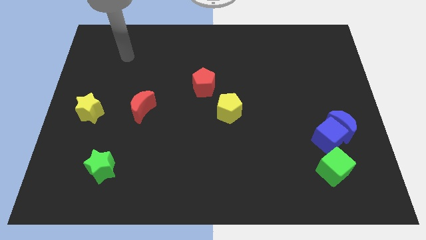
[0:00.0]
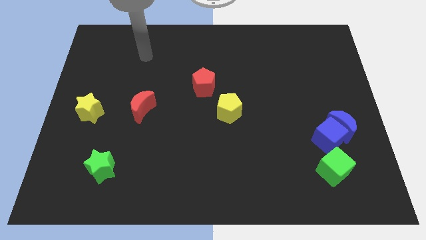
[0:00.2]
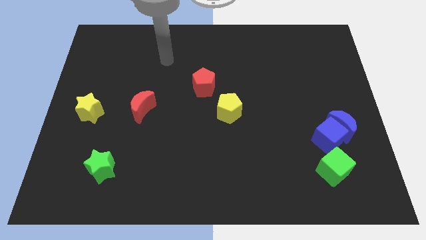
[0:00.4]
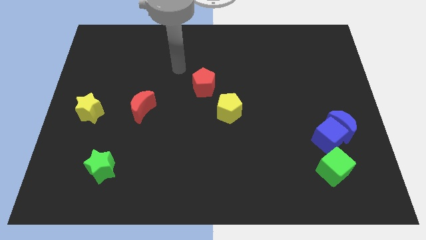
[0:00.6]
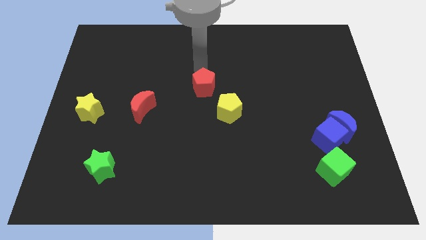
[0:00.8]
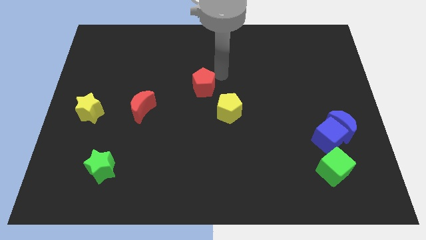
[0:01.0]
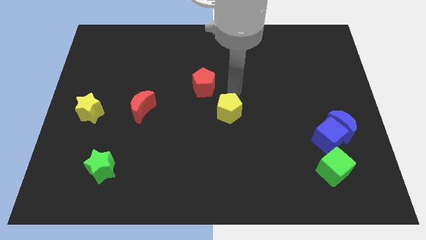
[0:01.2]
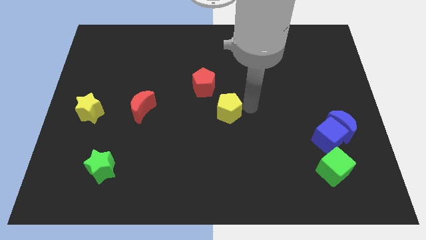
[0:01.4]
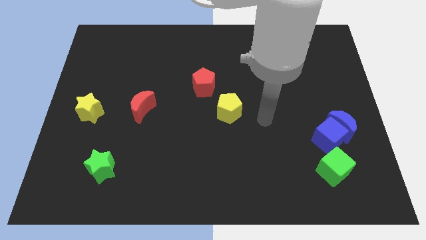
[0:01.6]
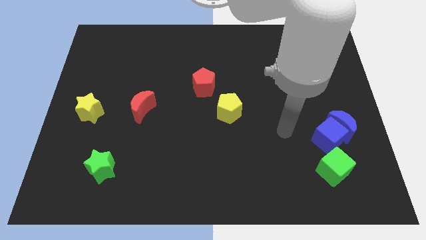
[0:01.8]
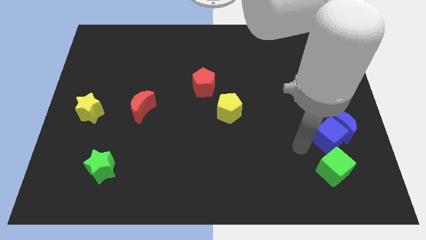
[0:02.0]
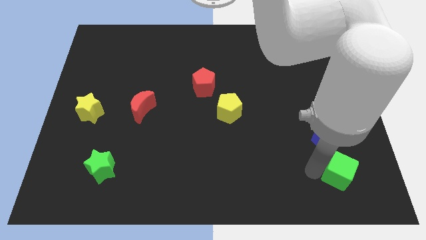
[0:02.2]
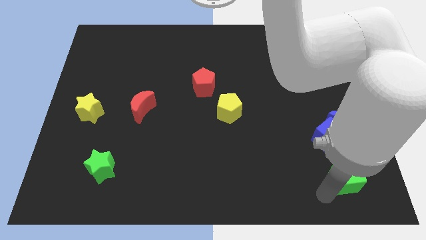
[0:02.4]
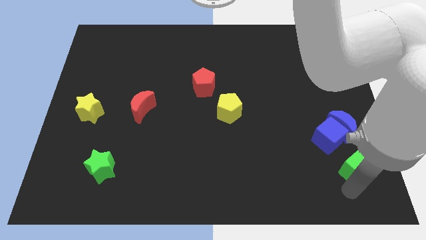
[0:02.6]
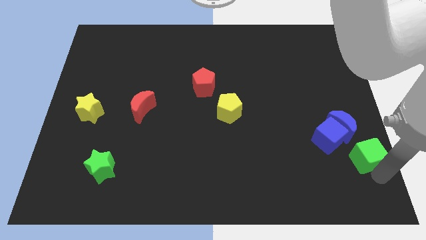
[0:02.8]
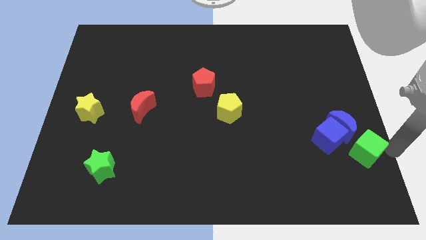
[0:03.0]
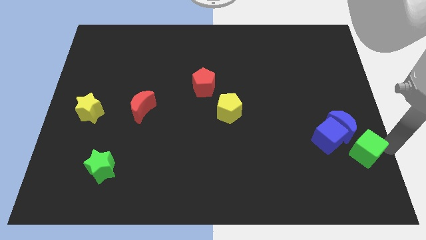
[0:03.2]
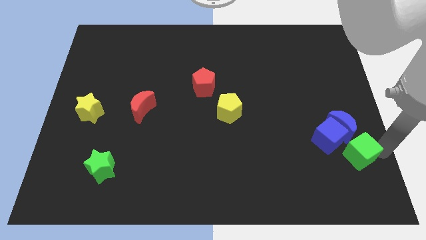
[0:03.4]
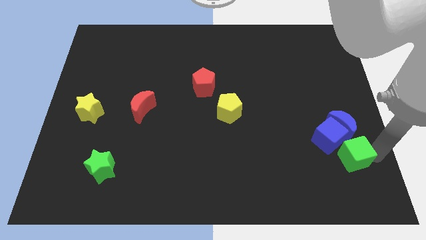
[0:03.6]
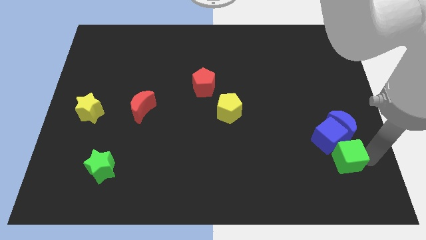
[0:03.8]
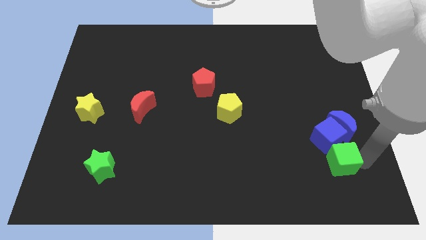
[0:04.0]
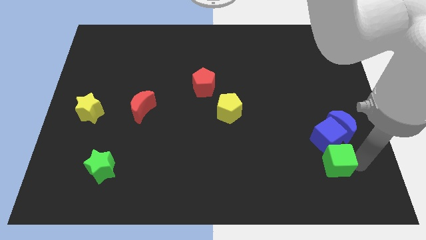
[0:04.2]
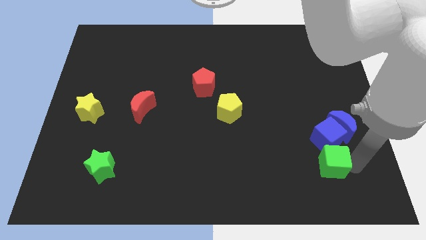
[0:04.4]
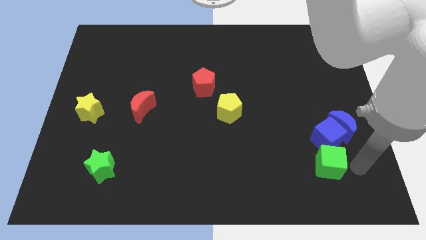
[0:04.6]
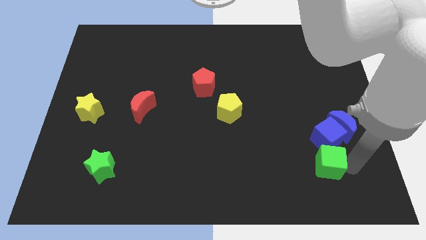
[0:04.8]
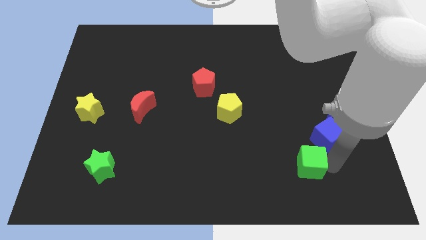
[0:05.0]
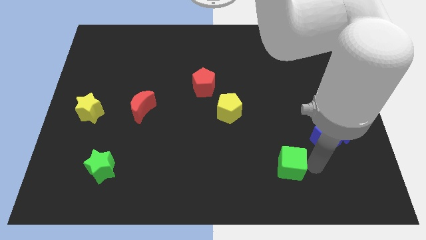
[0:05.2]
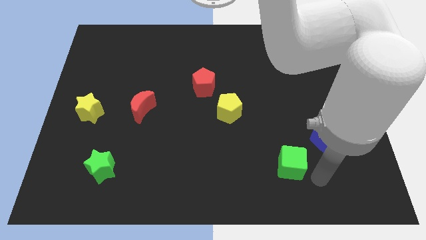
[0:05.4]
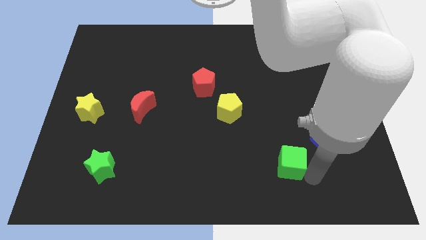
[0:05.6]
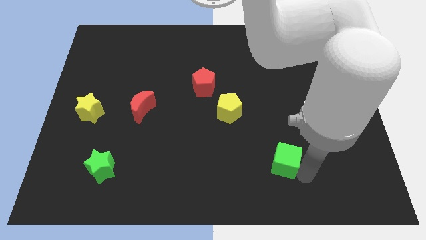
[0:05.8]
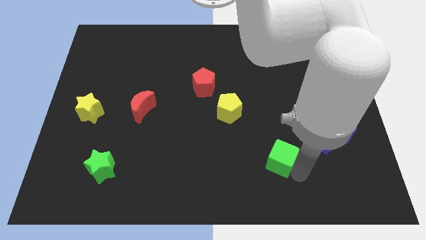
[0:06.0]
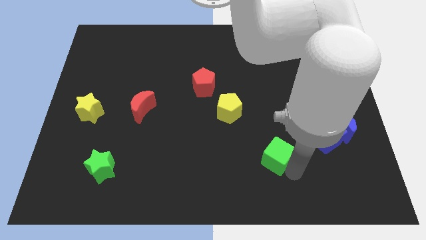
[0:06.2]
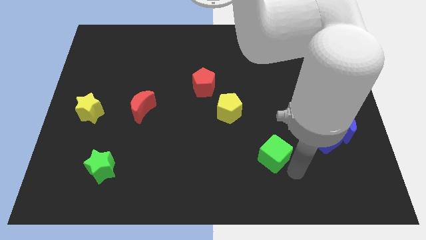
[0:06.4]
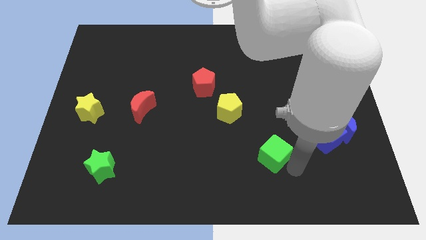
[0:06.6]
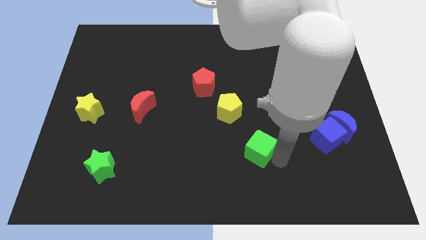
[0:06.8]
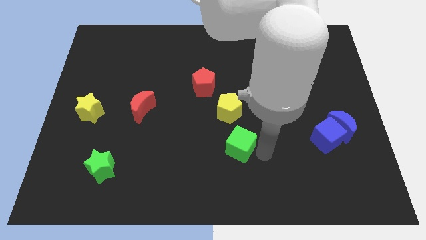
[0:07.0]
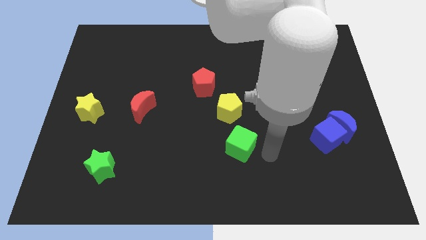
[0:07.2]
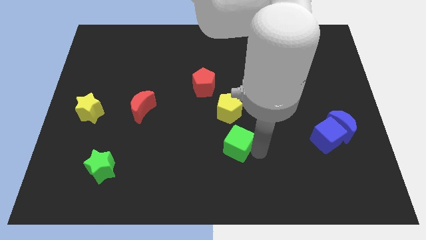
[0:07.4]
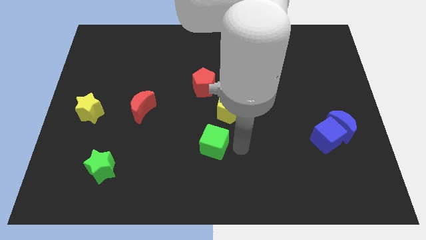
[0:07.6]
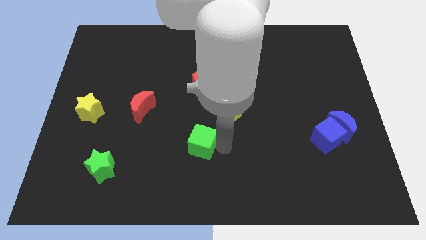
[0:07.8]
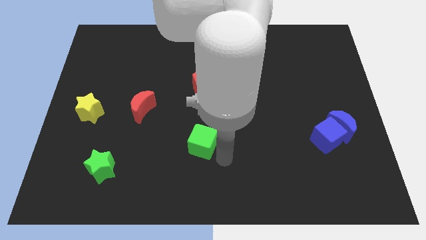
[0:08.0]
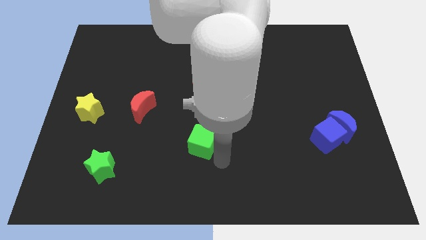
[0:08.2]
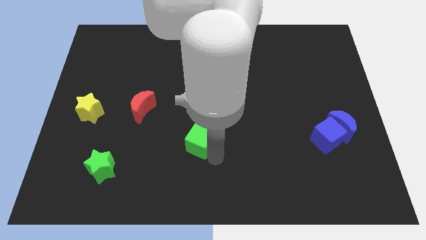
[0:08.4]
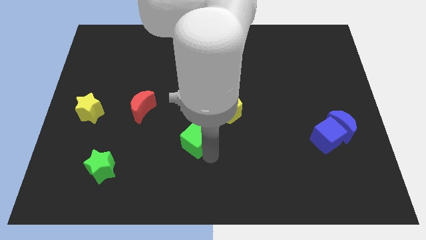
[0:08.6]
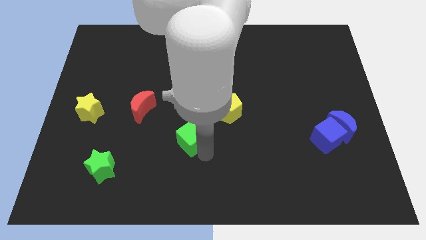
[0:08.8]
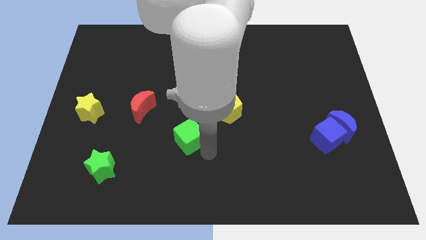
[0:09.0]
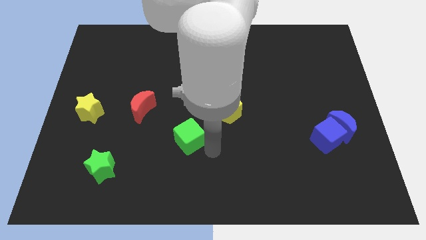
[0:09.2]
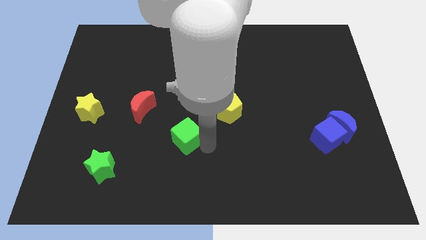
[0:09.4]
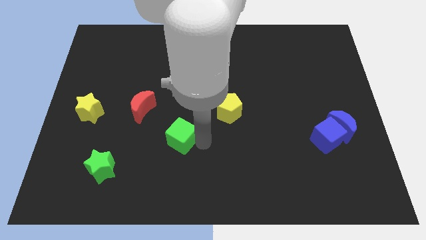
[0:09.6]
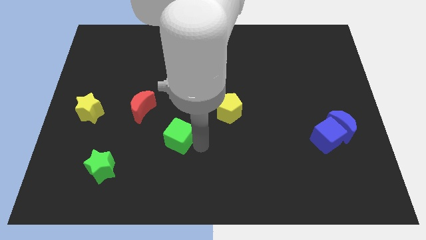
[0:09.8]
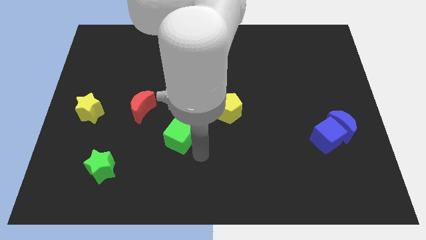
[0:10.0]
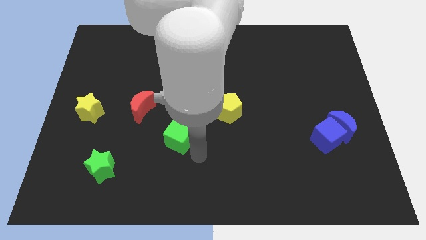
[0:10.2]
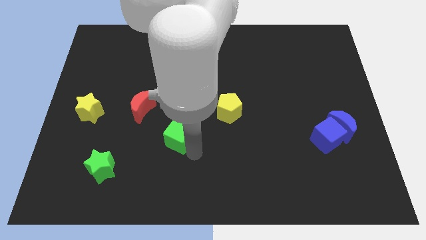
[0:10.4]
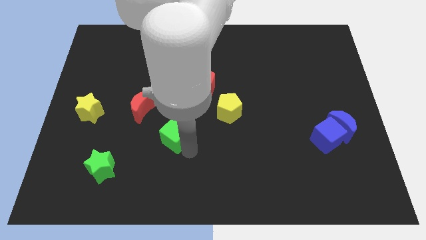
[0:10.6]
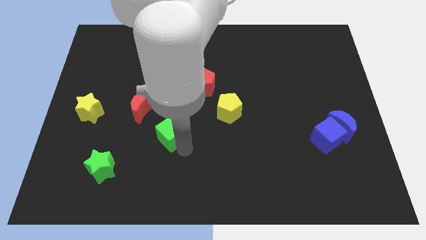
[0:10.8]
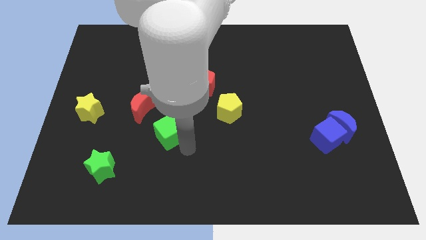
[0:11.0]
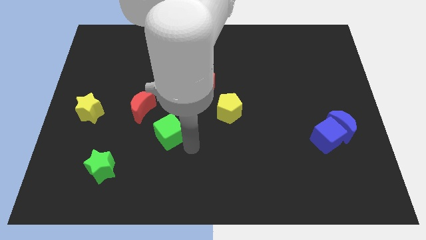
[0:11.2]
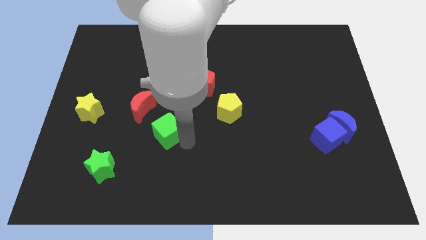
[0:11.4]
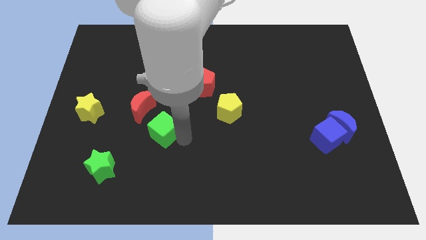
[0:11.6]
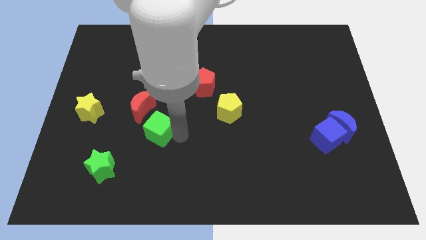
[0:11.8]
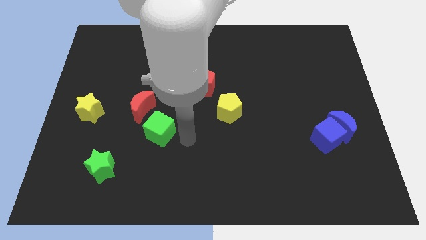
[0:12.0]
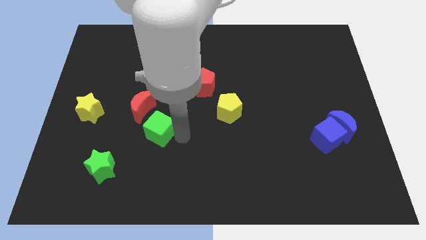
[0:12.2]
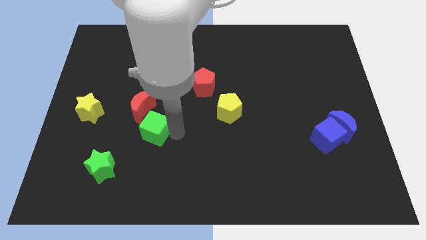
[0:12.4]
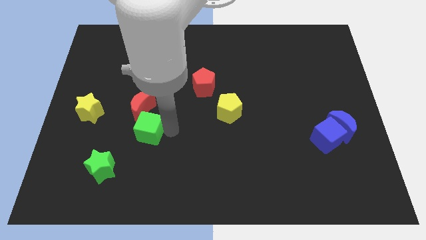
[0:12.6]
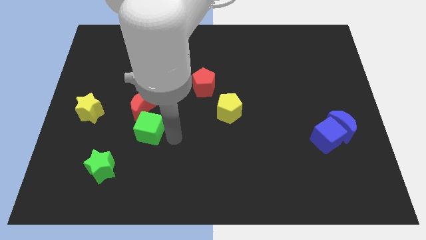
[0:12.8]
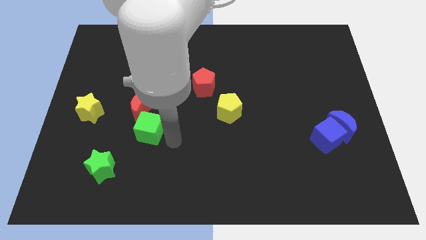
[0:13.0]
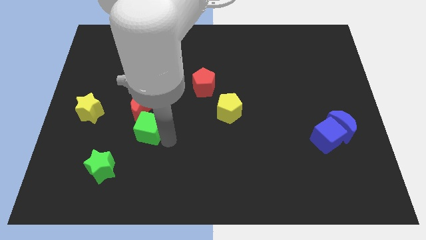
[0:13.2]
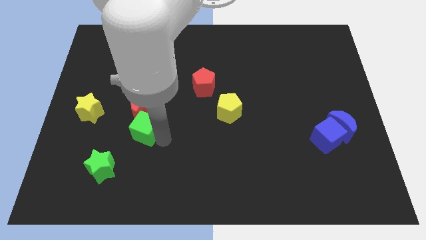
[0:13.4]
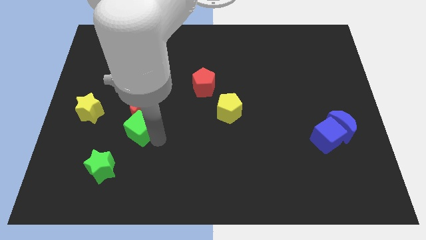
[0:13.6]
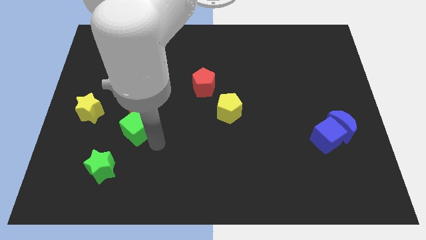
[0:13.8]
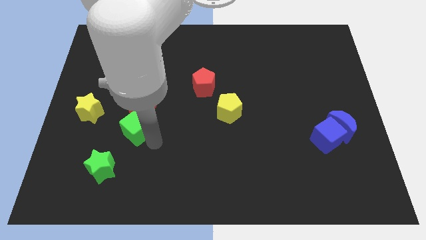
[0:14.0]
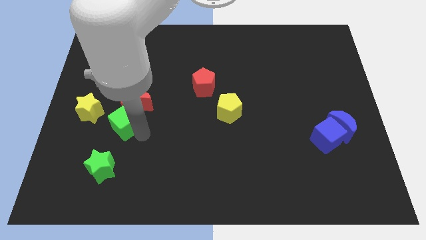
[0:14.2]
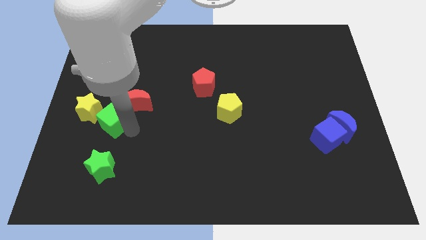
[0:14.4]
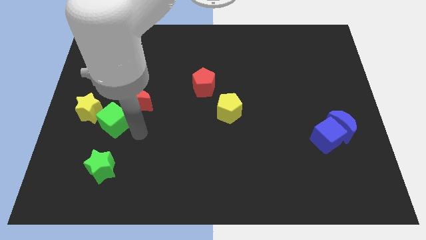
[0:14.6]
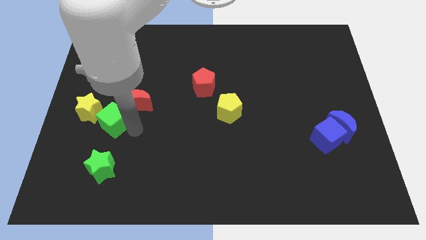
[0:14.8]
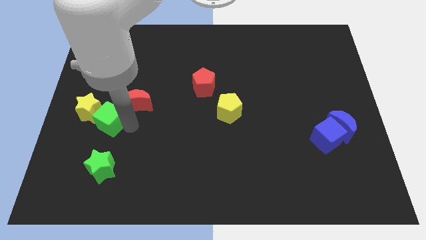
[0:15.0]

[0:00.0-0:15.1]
put the green cube towards the yellow star
